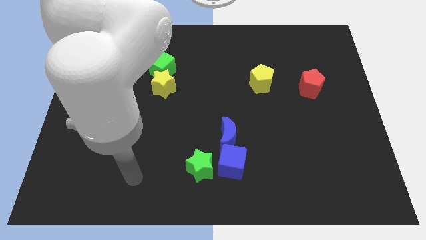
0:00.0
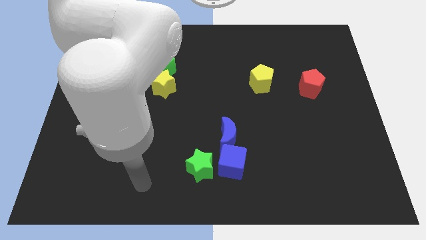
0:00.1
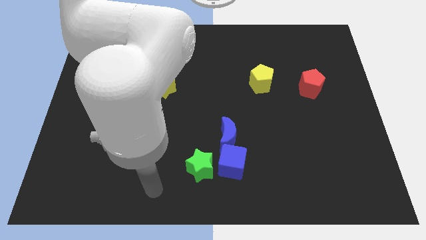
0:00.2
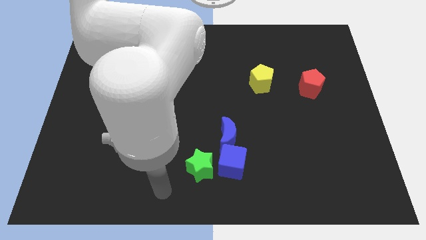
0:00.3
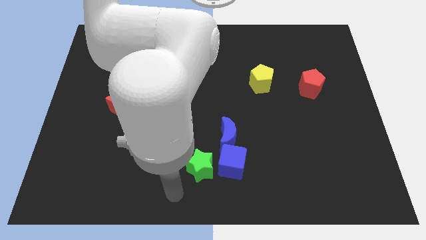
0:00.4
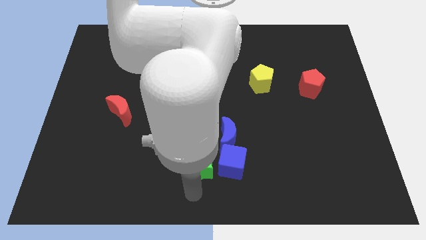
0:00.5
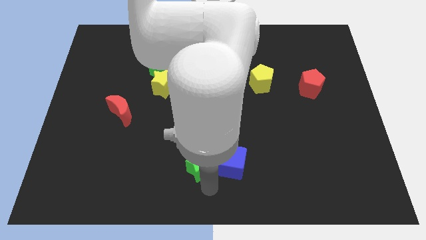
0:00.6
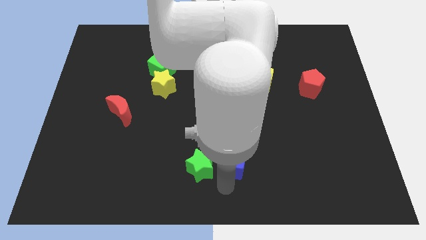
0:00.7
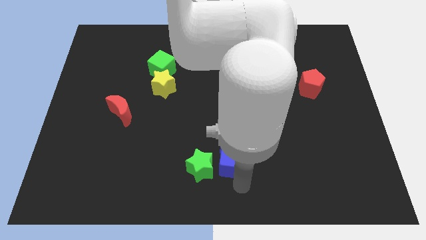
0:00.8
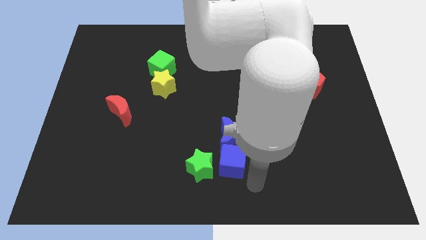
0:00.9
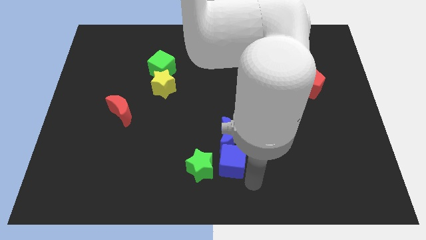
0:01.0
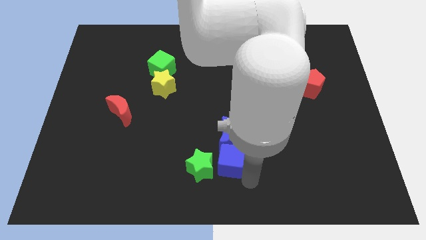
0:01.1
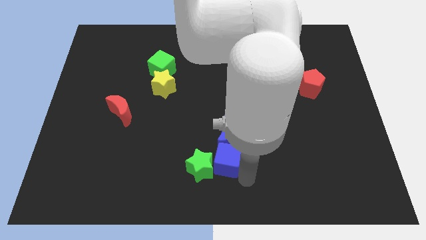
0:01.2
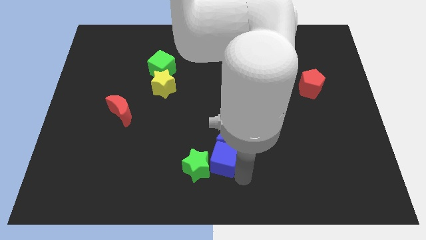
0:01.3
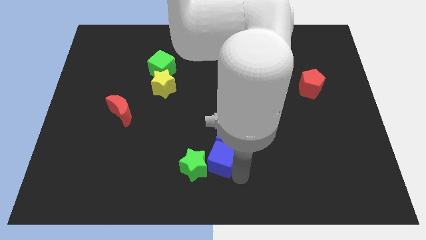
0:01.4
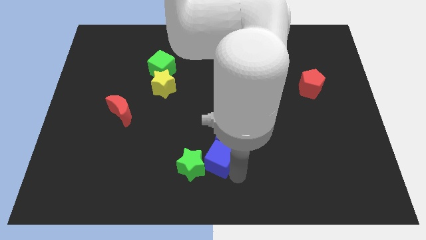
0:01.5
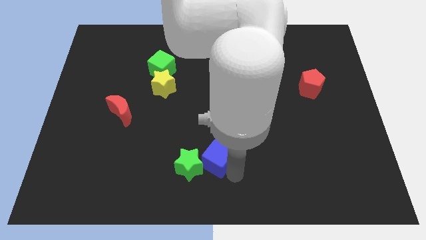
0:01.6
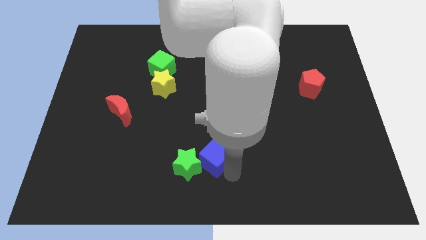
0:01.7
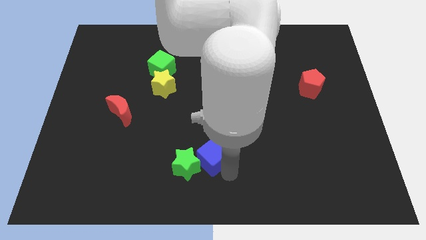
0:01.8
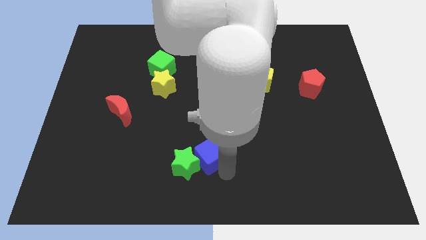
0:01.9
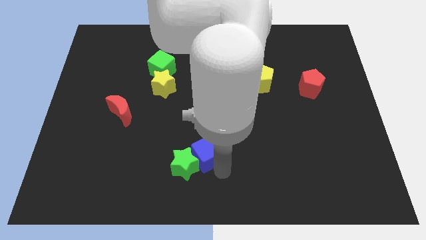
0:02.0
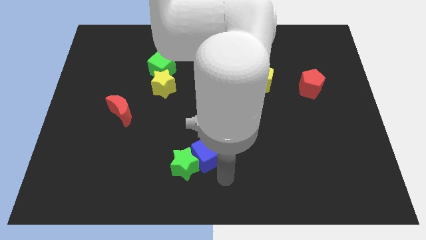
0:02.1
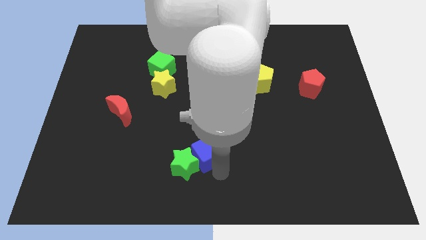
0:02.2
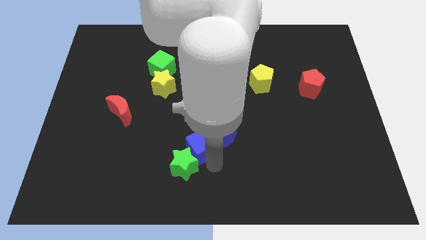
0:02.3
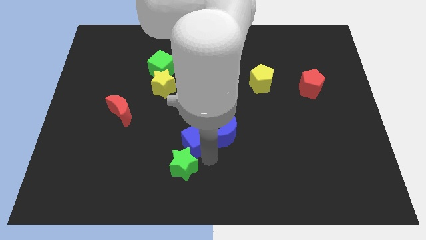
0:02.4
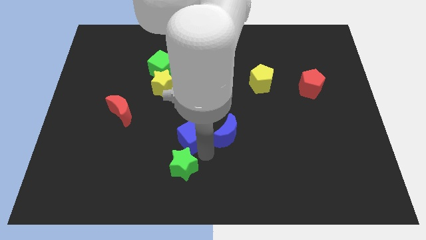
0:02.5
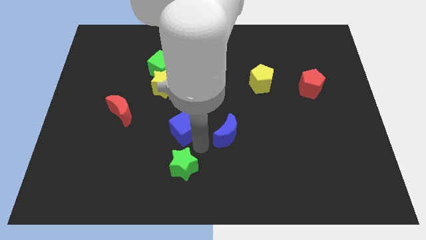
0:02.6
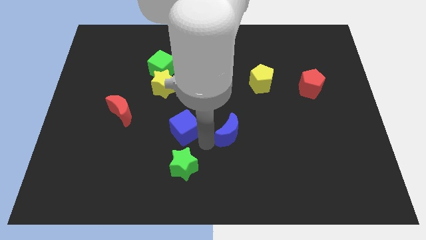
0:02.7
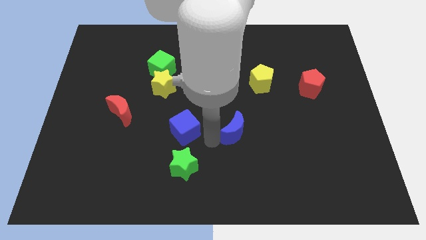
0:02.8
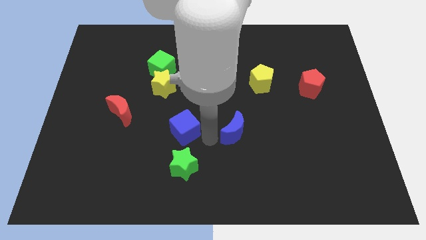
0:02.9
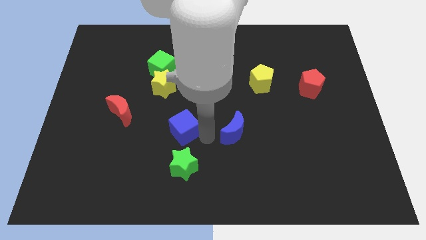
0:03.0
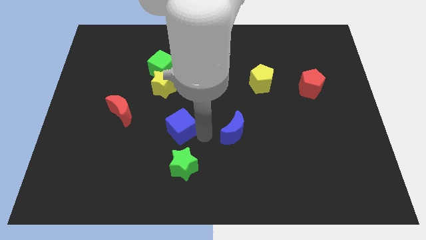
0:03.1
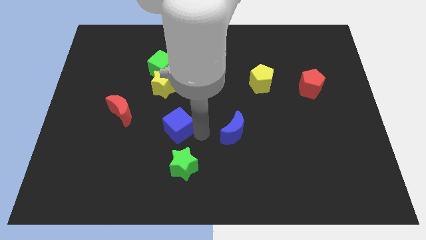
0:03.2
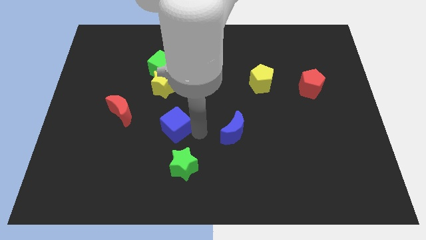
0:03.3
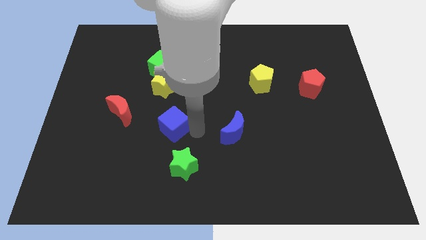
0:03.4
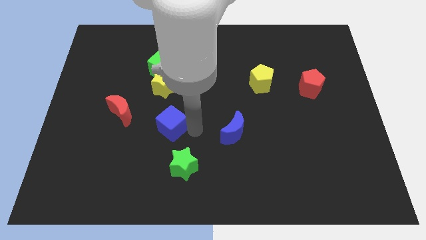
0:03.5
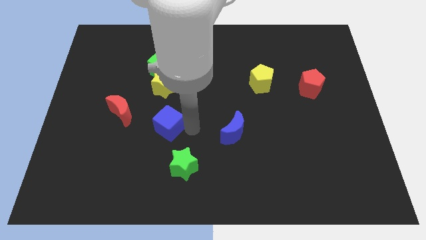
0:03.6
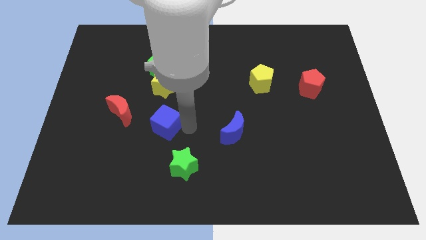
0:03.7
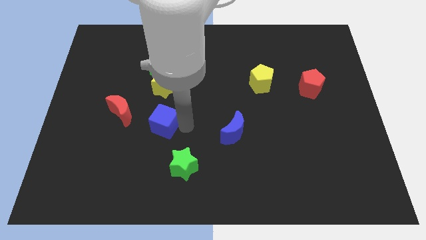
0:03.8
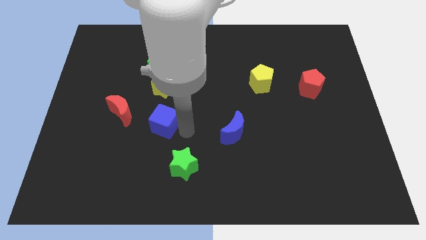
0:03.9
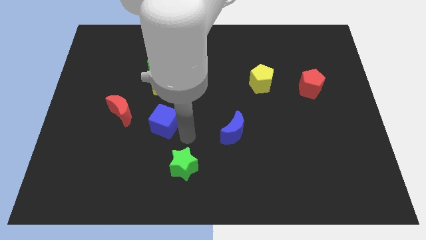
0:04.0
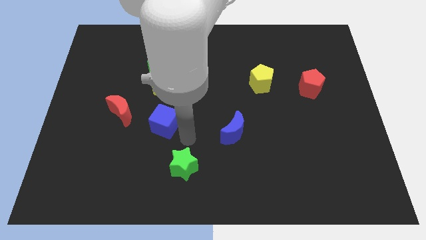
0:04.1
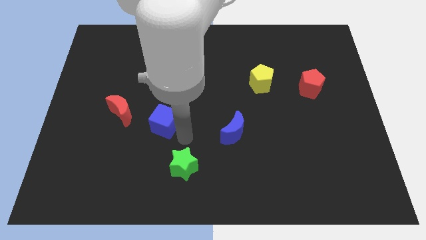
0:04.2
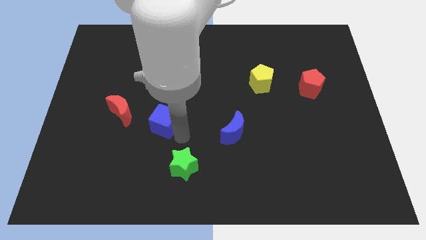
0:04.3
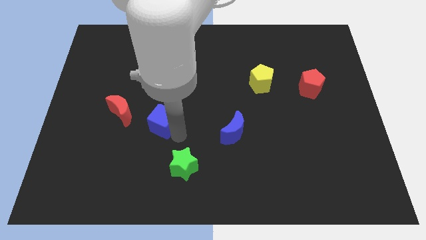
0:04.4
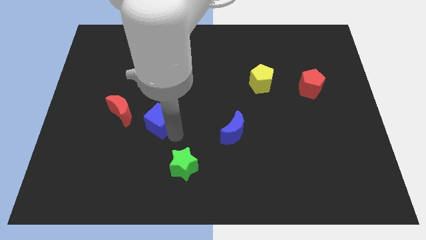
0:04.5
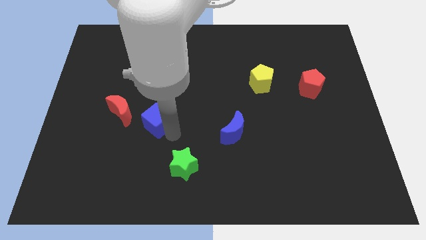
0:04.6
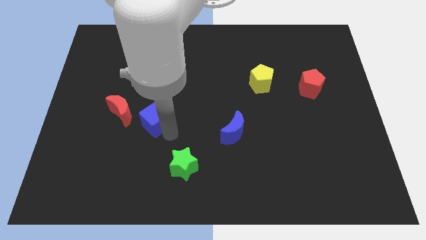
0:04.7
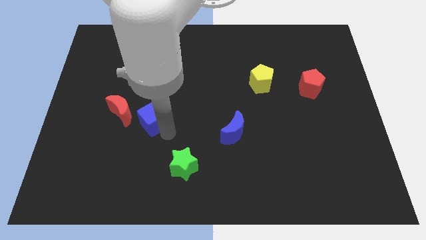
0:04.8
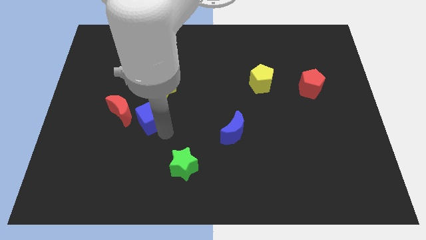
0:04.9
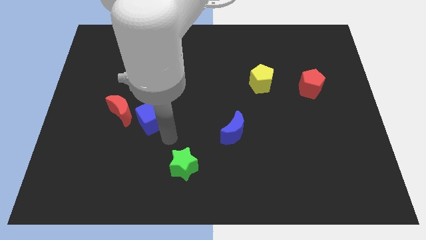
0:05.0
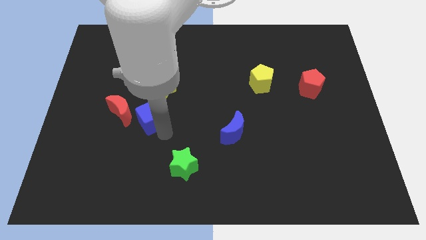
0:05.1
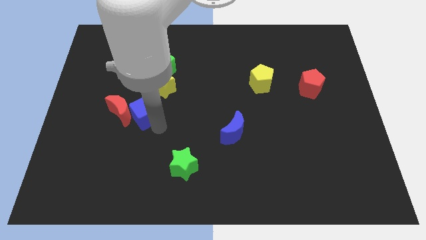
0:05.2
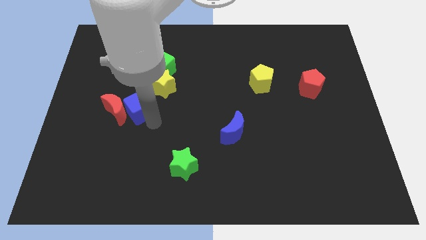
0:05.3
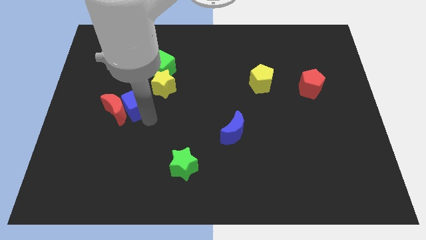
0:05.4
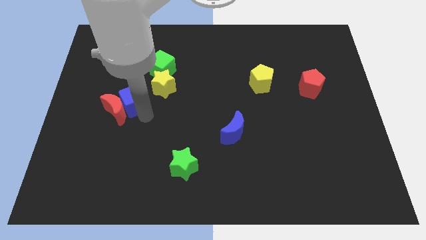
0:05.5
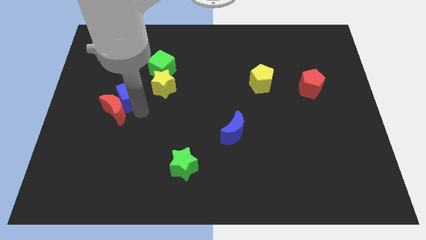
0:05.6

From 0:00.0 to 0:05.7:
put the blue cube left of the yellow star

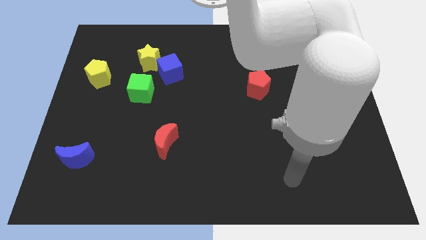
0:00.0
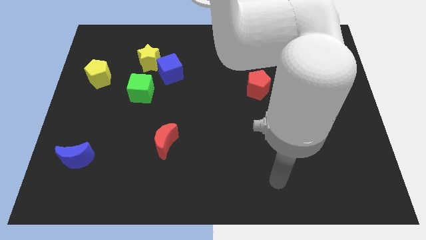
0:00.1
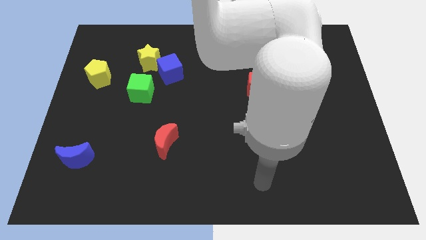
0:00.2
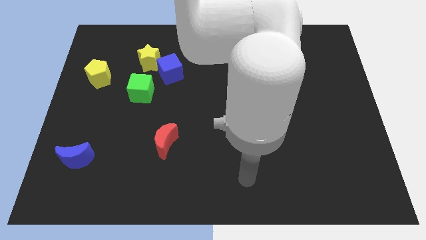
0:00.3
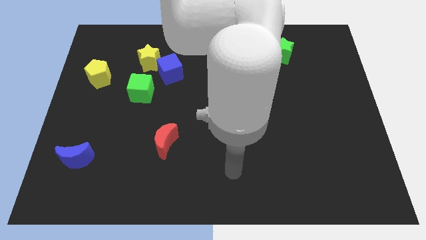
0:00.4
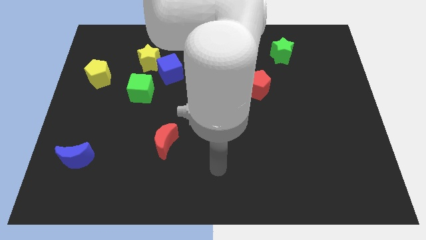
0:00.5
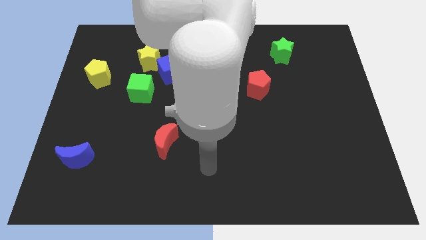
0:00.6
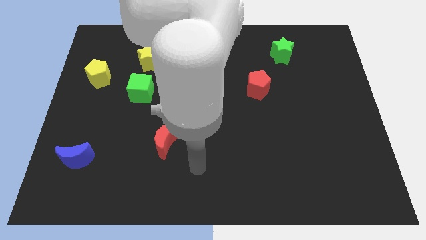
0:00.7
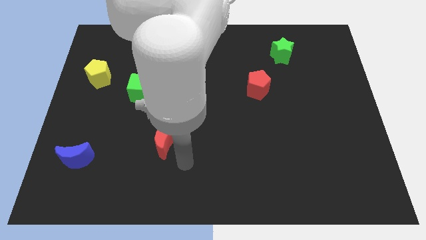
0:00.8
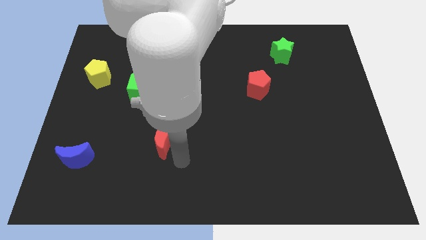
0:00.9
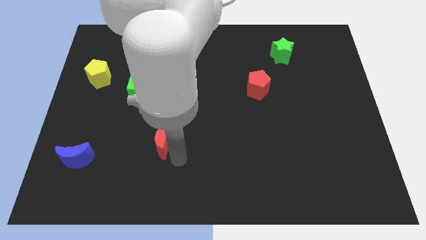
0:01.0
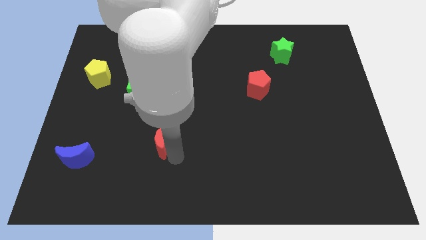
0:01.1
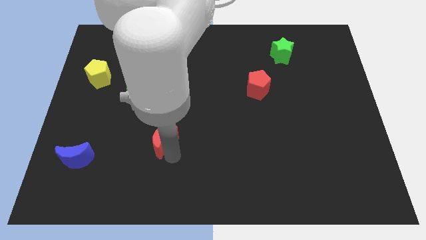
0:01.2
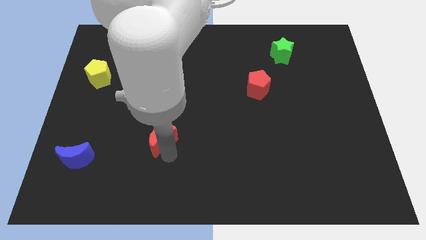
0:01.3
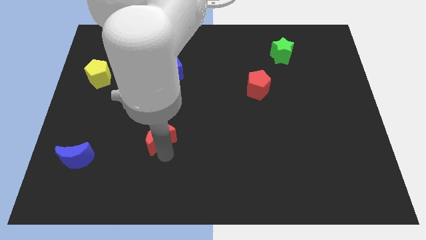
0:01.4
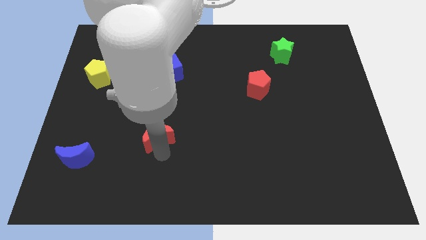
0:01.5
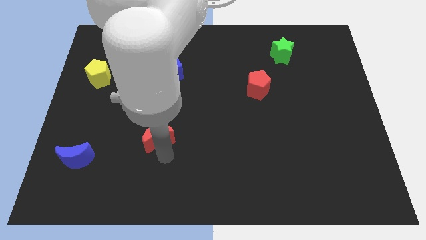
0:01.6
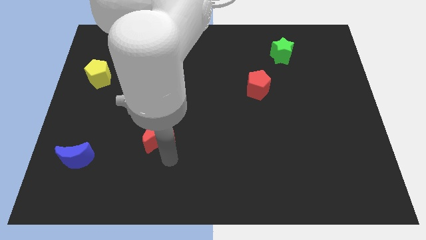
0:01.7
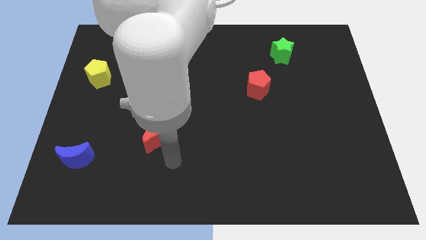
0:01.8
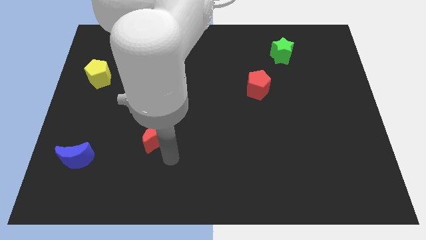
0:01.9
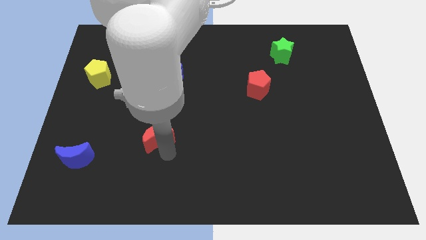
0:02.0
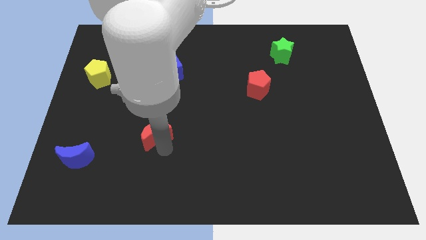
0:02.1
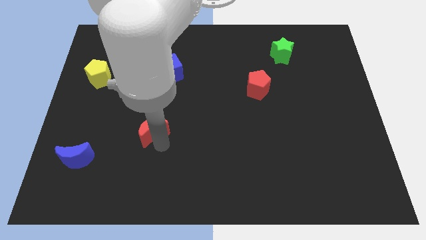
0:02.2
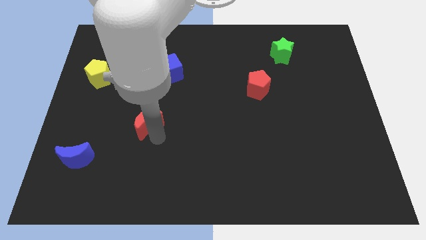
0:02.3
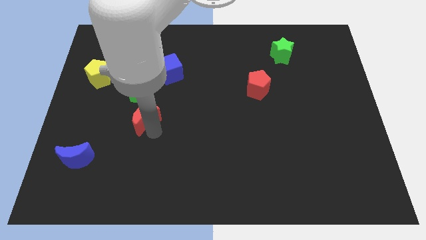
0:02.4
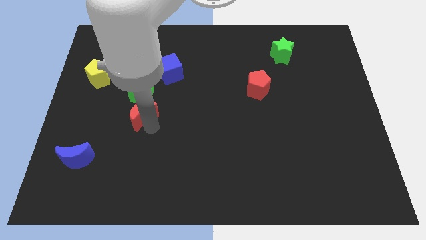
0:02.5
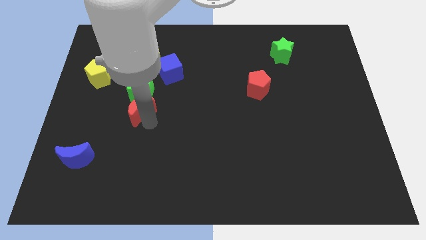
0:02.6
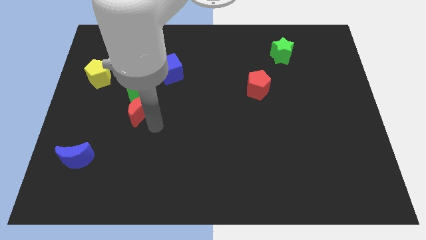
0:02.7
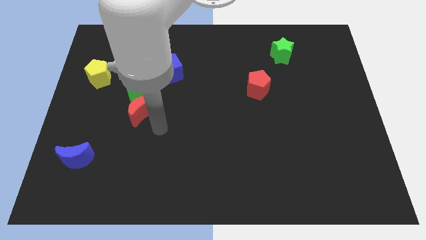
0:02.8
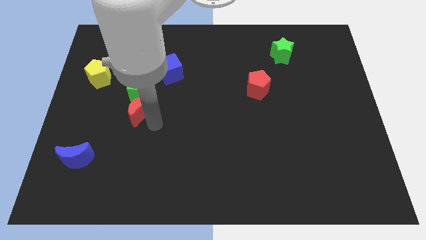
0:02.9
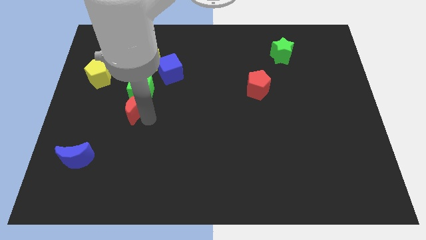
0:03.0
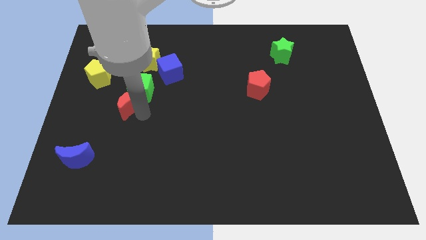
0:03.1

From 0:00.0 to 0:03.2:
push the red moon to the bottom right of the yellow pentagon
